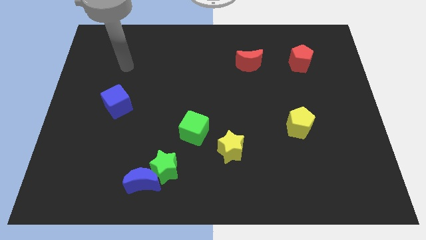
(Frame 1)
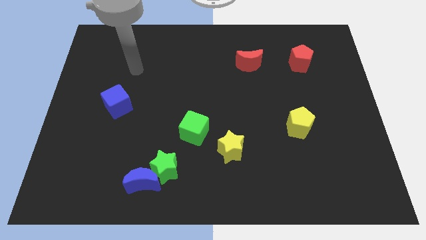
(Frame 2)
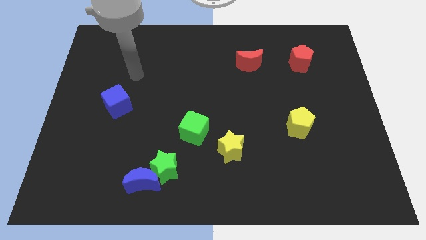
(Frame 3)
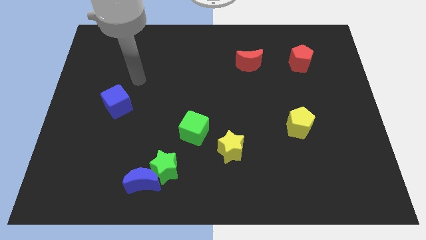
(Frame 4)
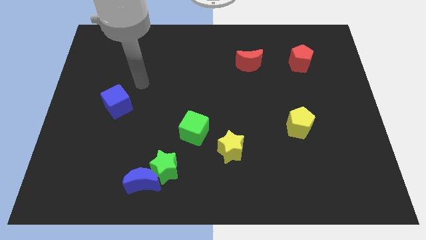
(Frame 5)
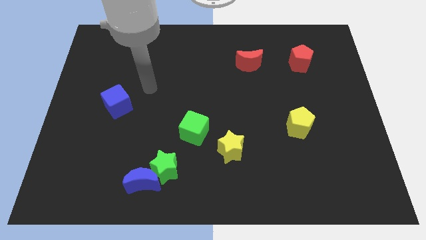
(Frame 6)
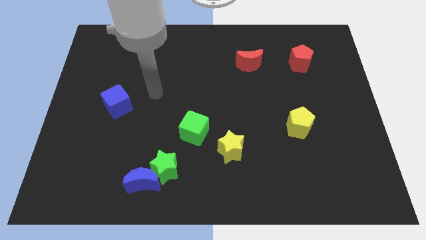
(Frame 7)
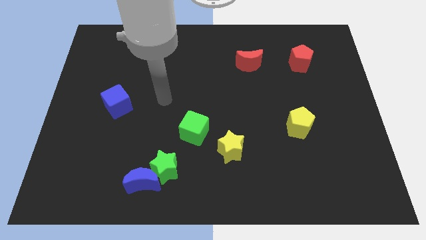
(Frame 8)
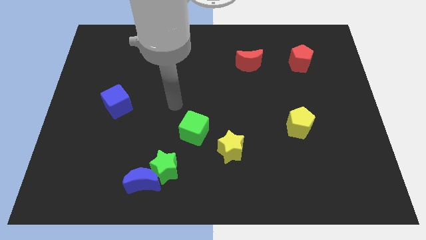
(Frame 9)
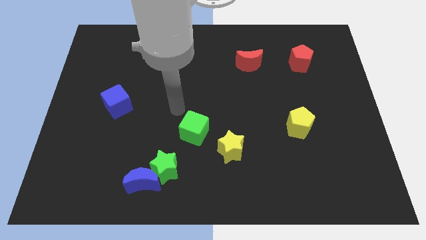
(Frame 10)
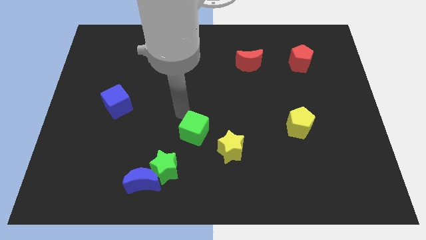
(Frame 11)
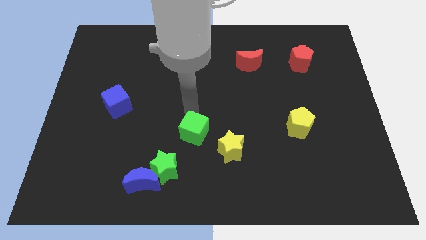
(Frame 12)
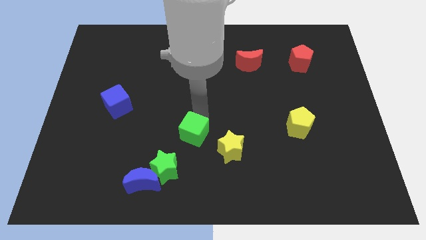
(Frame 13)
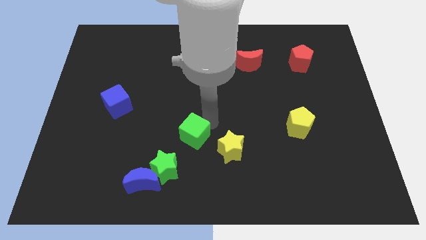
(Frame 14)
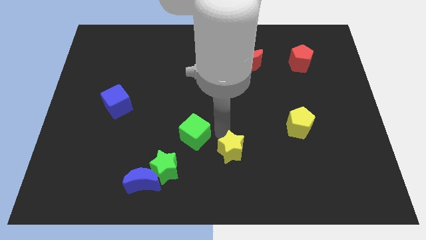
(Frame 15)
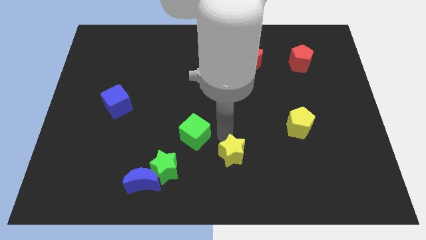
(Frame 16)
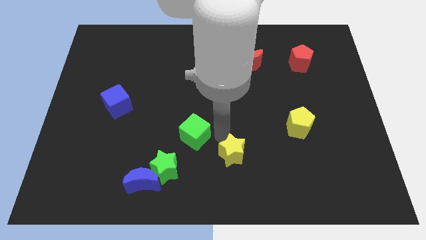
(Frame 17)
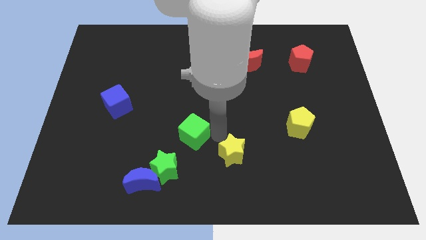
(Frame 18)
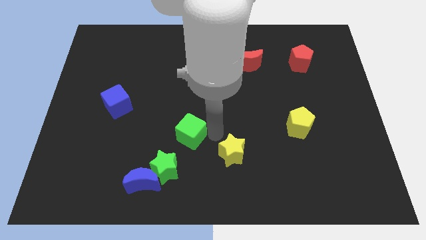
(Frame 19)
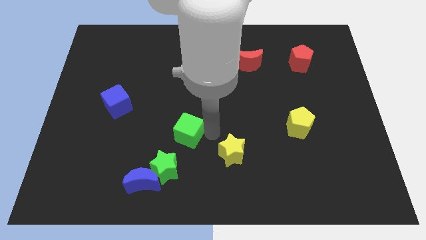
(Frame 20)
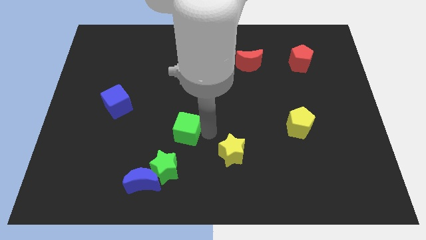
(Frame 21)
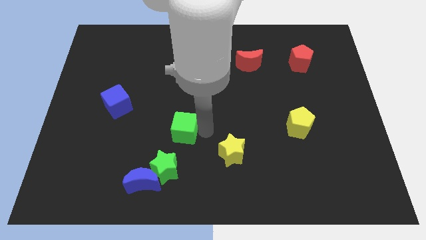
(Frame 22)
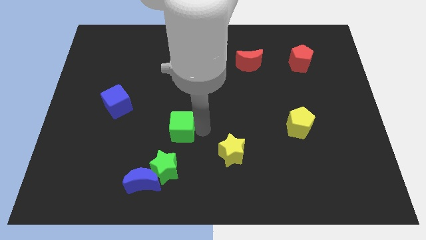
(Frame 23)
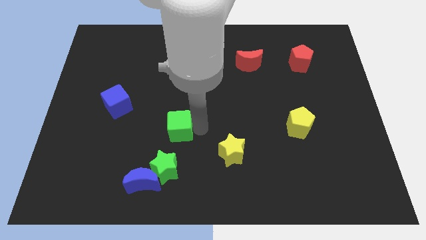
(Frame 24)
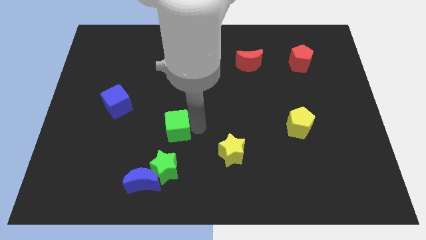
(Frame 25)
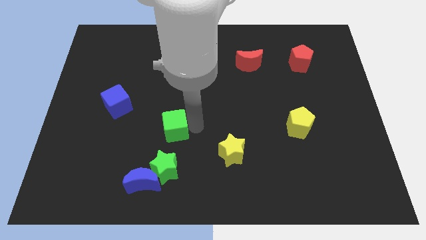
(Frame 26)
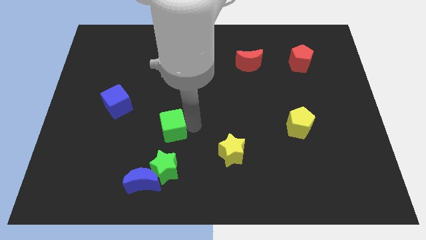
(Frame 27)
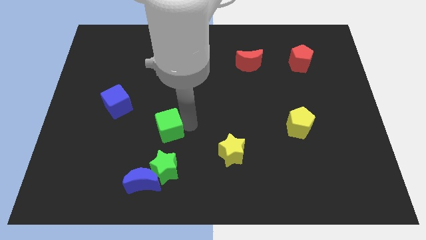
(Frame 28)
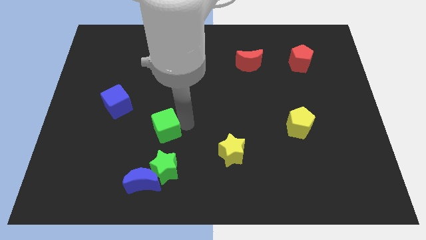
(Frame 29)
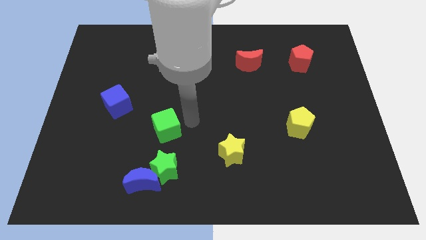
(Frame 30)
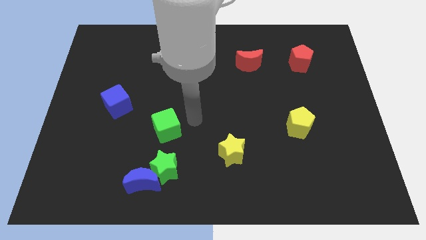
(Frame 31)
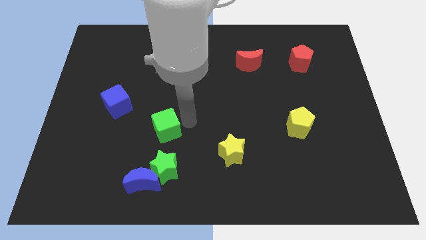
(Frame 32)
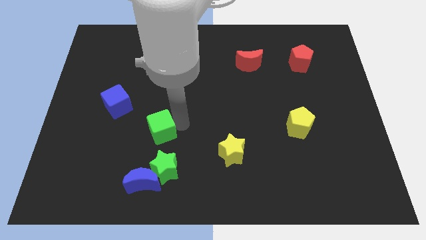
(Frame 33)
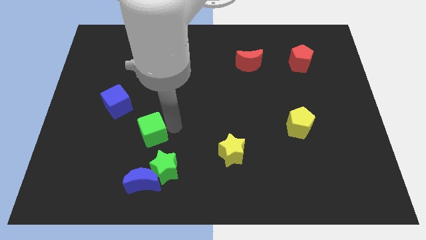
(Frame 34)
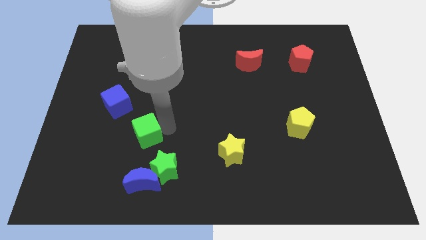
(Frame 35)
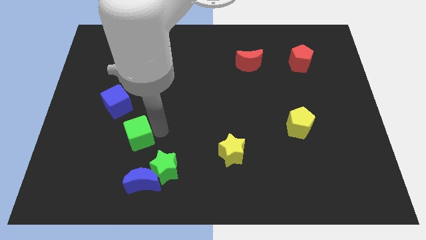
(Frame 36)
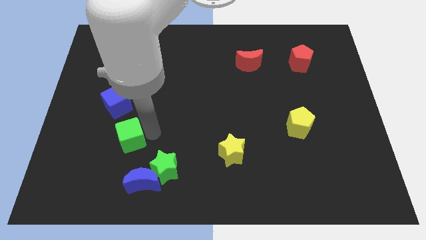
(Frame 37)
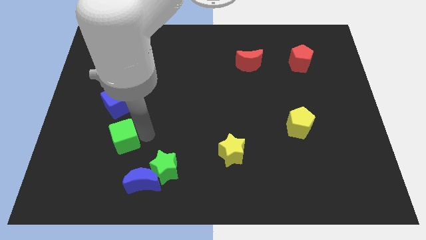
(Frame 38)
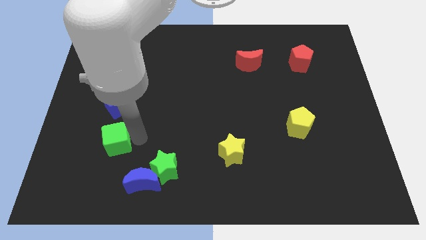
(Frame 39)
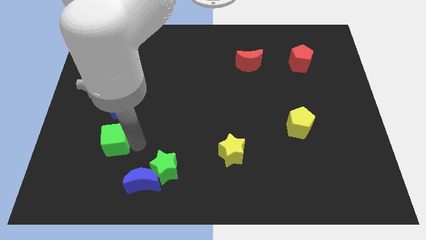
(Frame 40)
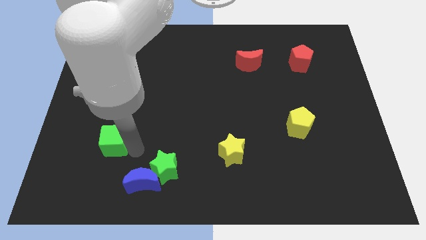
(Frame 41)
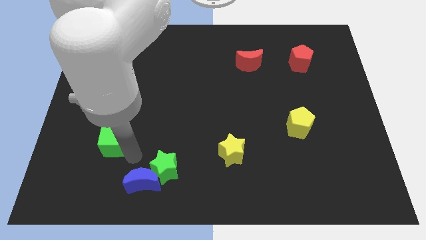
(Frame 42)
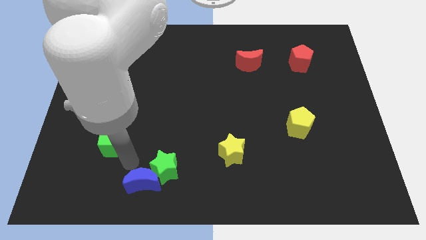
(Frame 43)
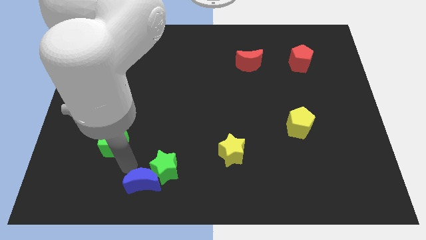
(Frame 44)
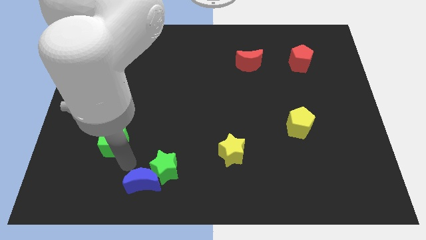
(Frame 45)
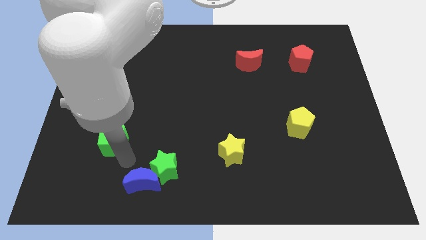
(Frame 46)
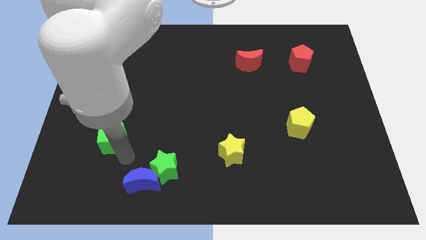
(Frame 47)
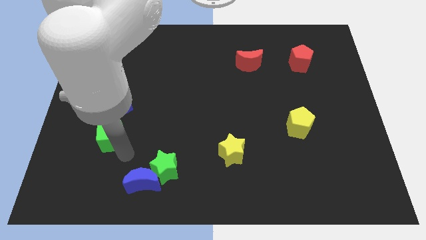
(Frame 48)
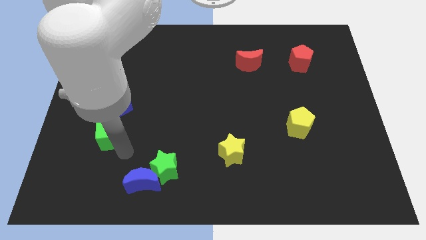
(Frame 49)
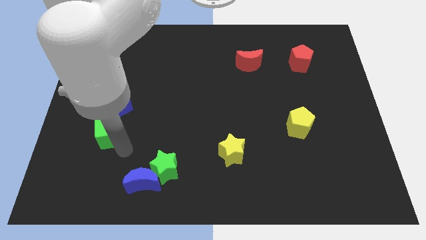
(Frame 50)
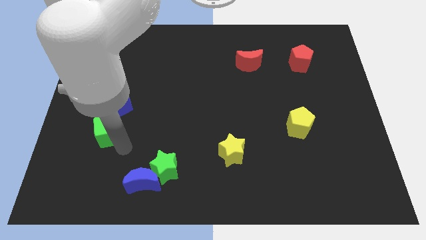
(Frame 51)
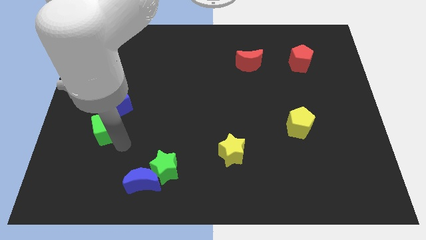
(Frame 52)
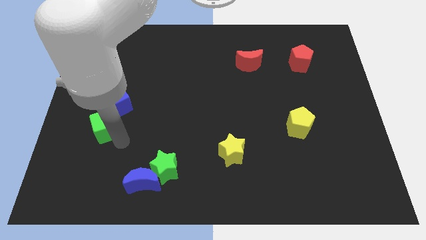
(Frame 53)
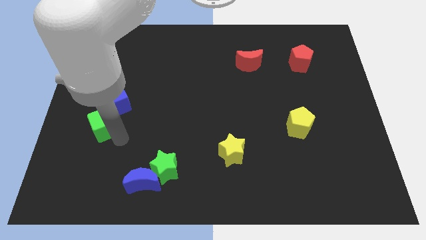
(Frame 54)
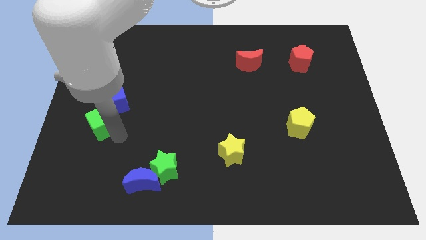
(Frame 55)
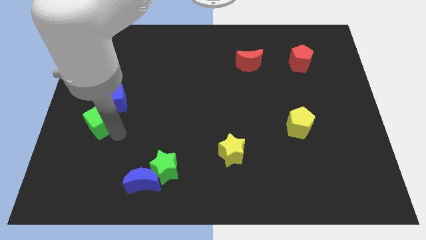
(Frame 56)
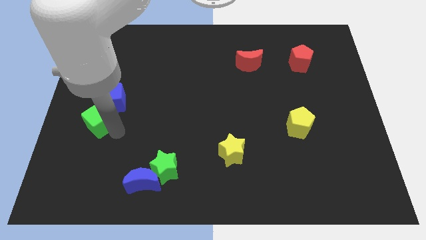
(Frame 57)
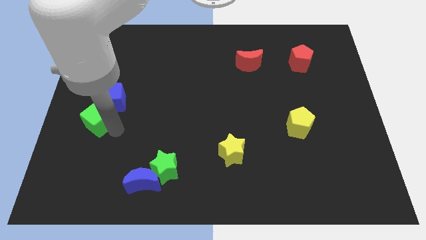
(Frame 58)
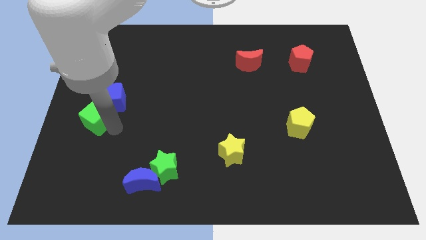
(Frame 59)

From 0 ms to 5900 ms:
put the green cube to the left side of the board

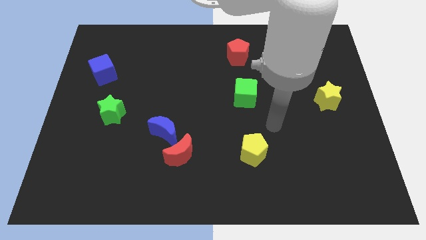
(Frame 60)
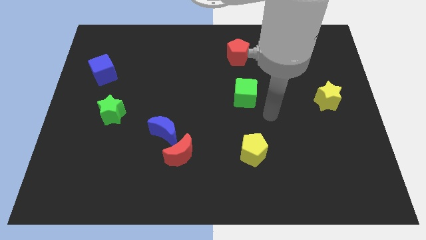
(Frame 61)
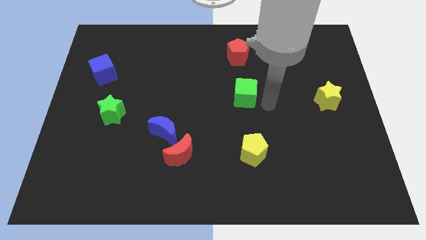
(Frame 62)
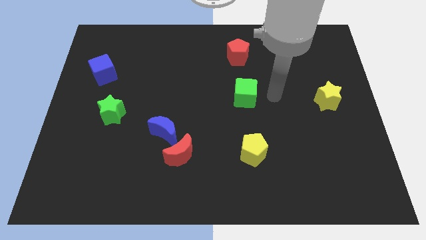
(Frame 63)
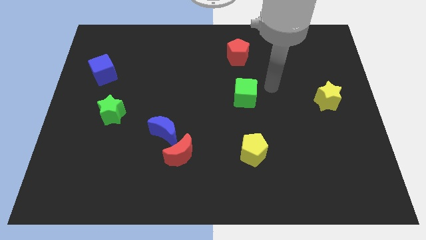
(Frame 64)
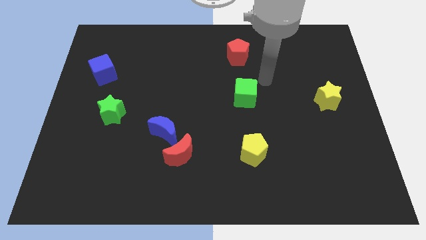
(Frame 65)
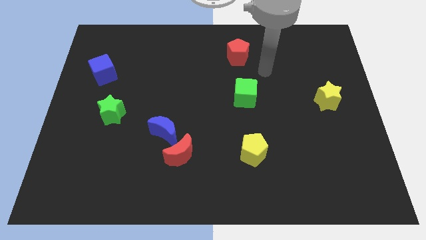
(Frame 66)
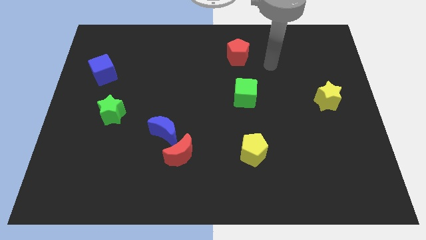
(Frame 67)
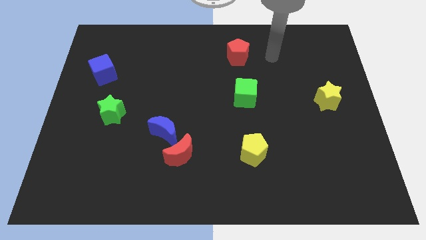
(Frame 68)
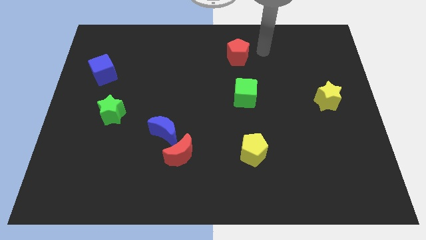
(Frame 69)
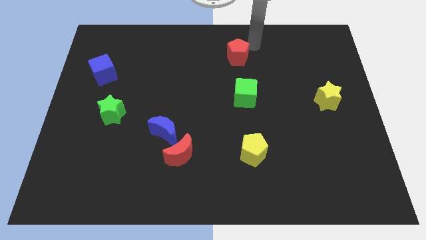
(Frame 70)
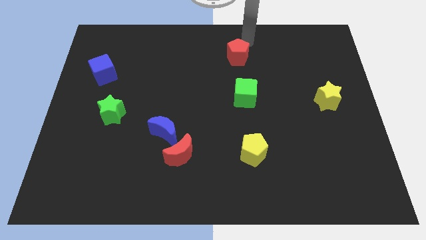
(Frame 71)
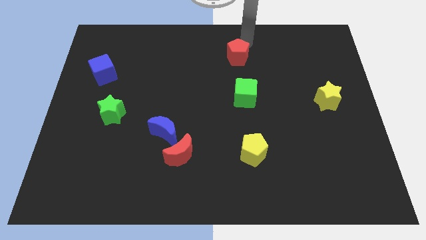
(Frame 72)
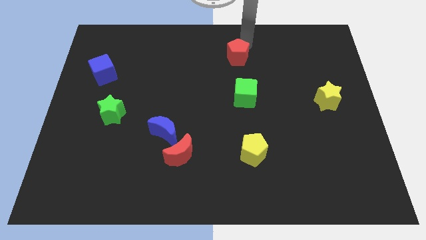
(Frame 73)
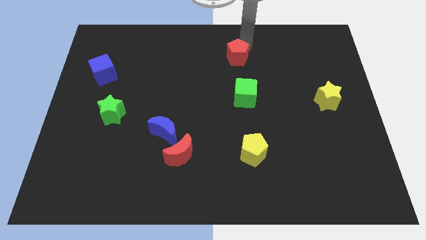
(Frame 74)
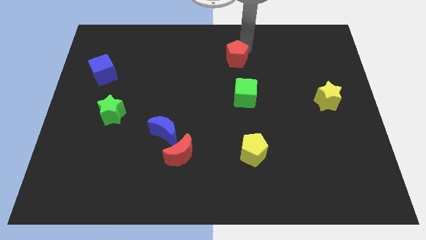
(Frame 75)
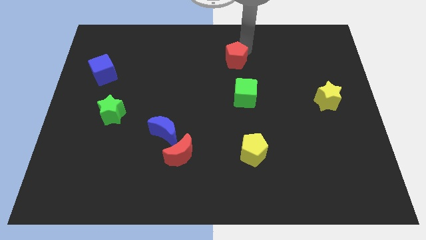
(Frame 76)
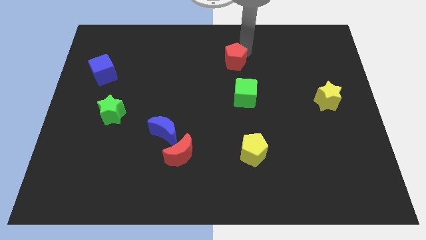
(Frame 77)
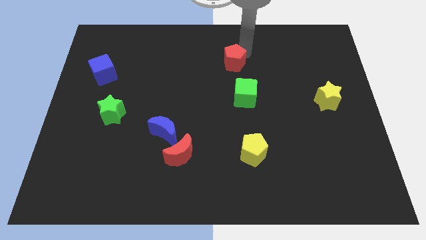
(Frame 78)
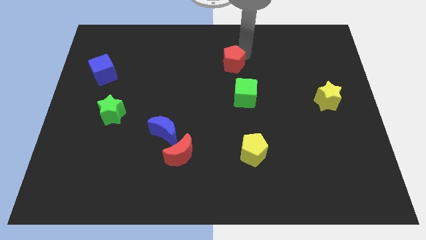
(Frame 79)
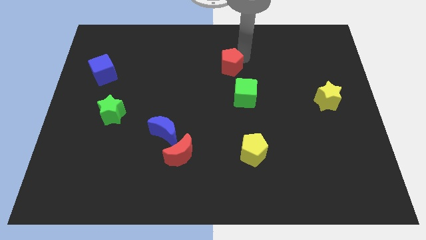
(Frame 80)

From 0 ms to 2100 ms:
slide the red pentagon to the center
